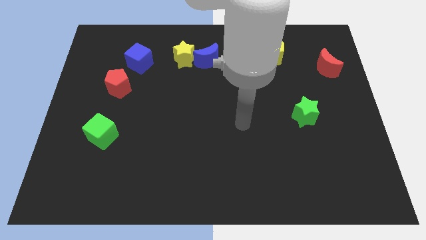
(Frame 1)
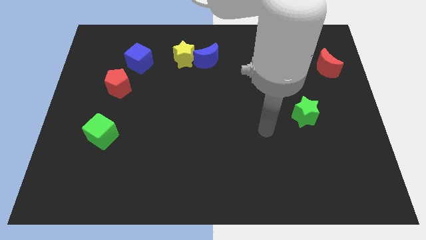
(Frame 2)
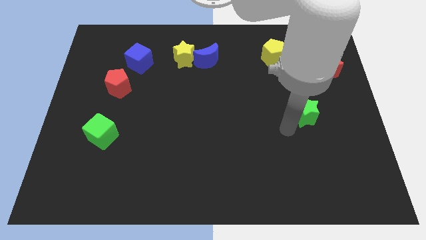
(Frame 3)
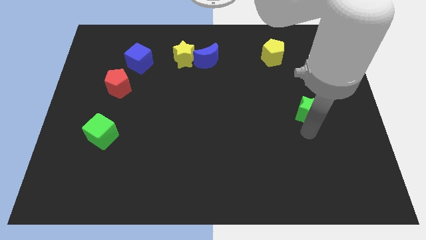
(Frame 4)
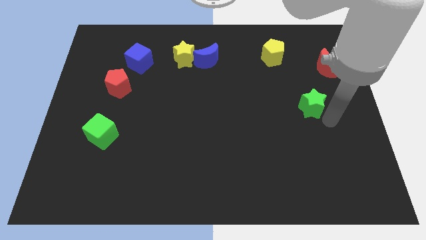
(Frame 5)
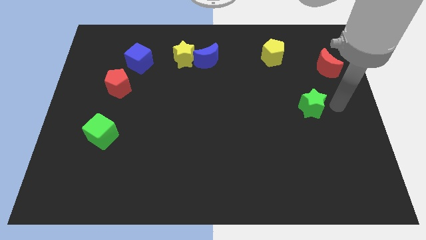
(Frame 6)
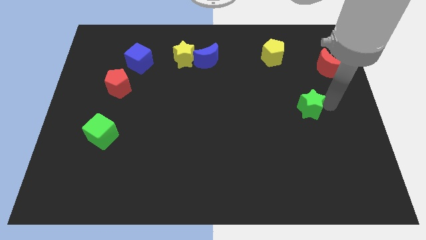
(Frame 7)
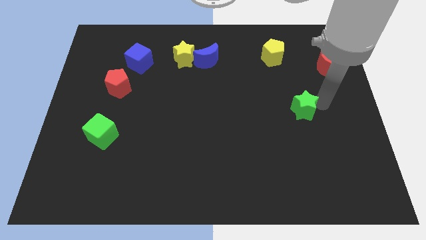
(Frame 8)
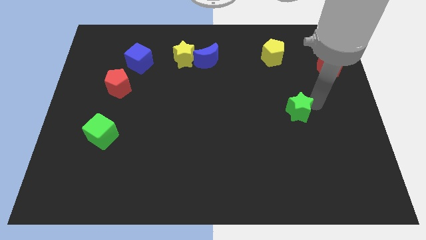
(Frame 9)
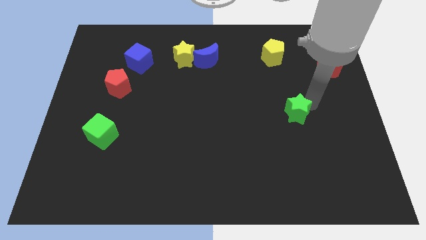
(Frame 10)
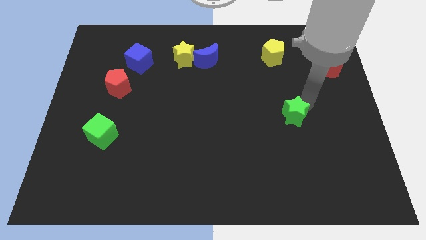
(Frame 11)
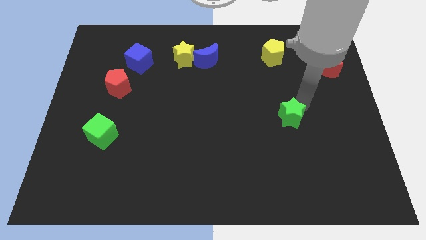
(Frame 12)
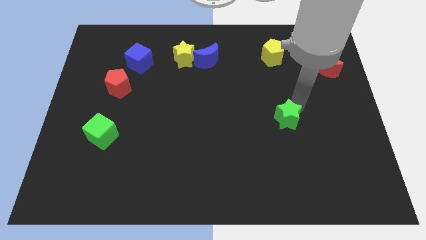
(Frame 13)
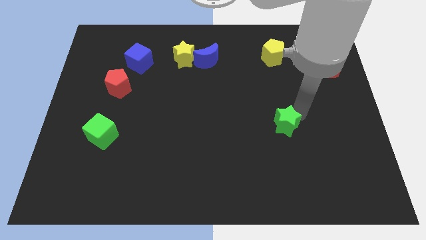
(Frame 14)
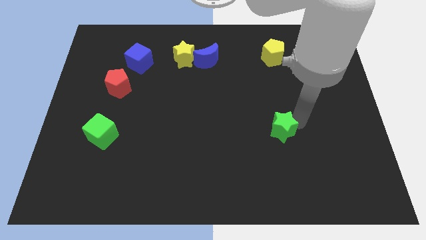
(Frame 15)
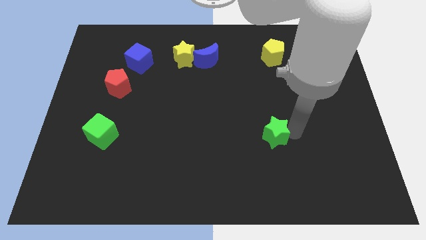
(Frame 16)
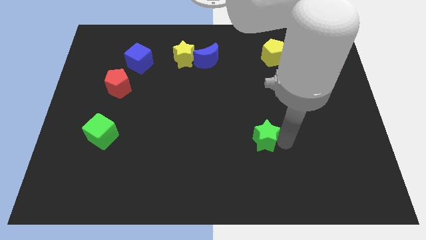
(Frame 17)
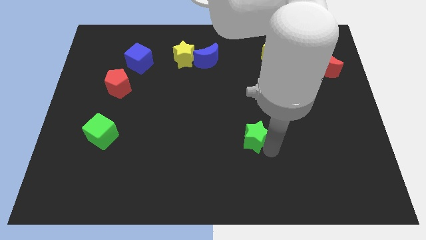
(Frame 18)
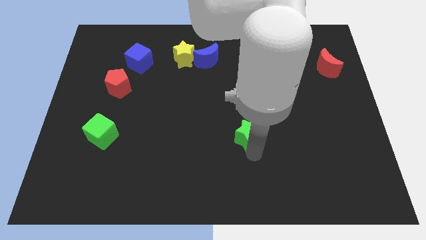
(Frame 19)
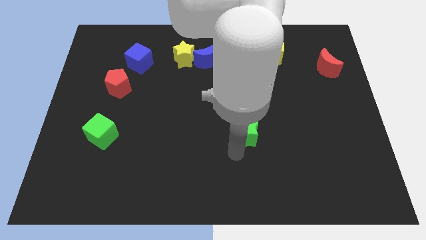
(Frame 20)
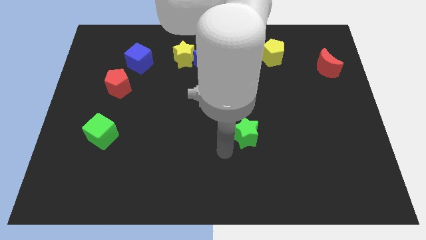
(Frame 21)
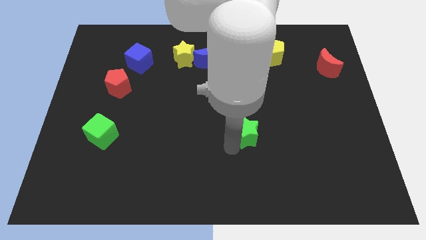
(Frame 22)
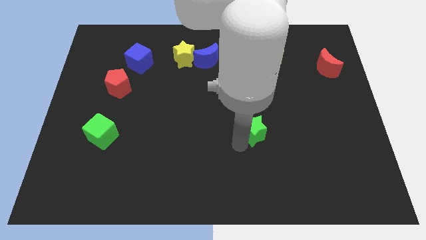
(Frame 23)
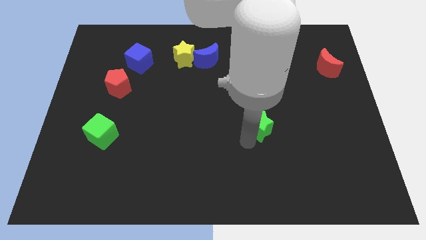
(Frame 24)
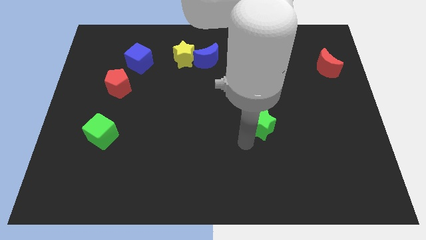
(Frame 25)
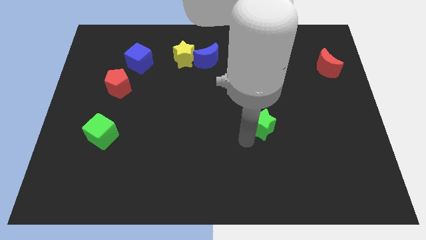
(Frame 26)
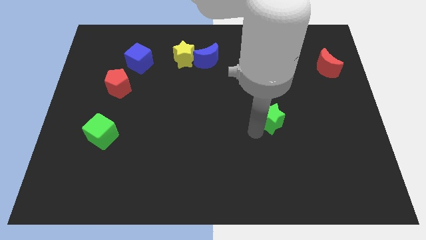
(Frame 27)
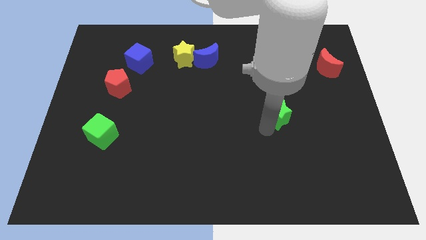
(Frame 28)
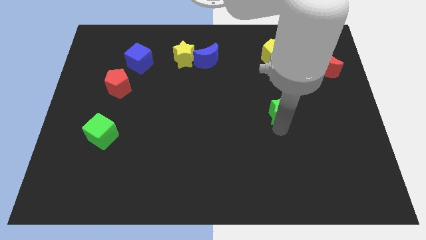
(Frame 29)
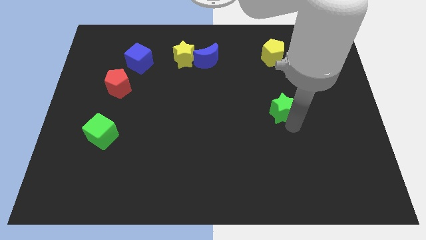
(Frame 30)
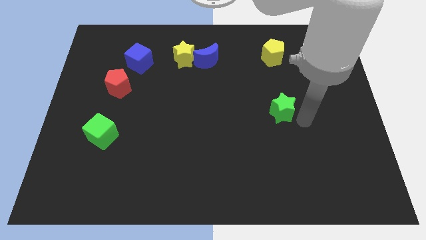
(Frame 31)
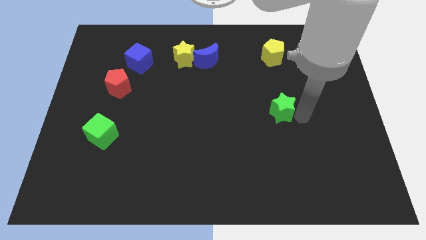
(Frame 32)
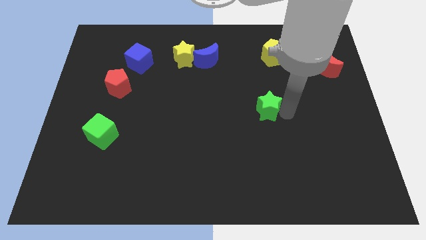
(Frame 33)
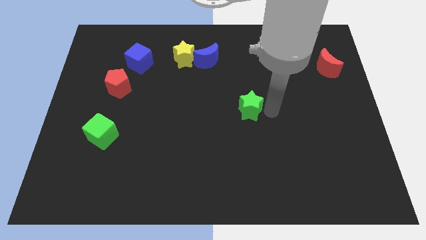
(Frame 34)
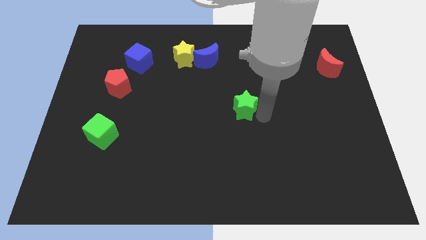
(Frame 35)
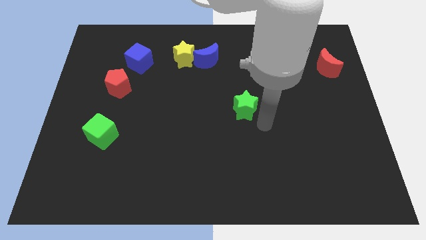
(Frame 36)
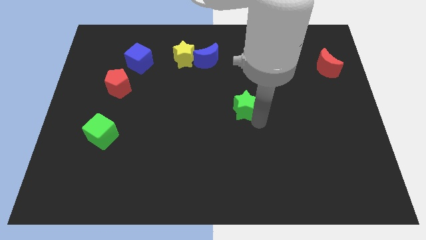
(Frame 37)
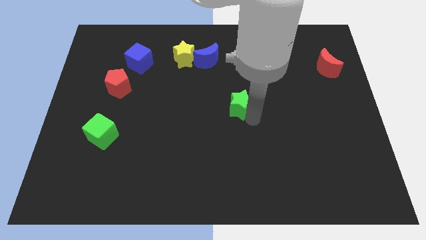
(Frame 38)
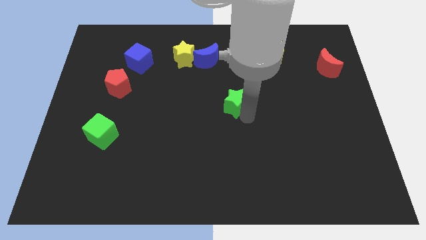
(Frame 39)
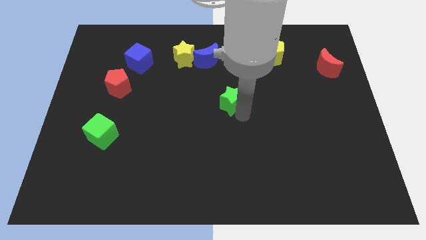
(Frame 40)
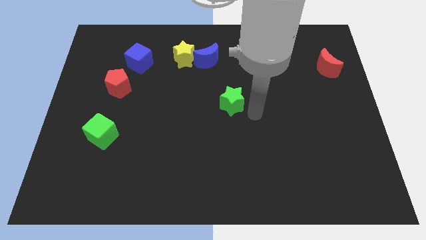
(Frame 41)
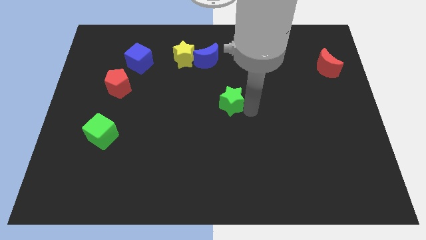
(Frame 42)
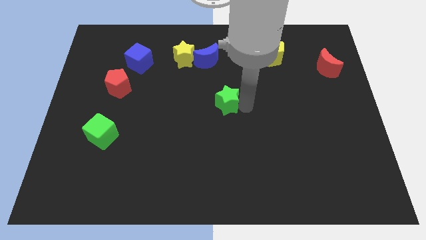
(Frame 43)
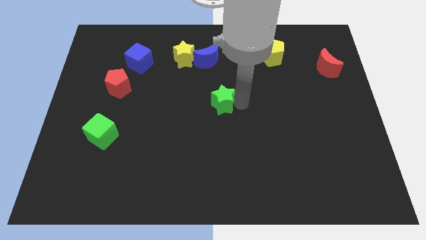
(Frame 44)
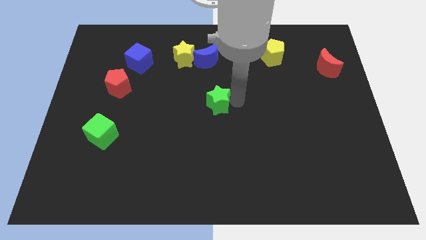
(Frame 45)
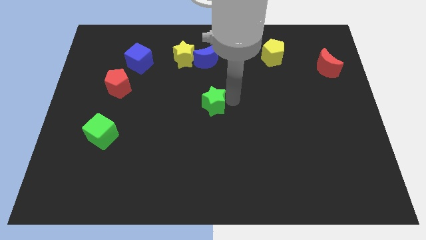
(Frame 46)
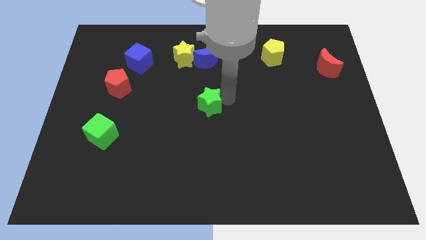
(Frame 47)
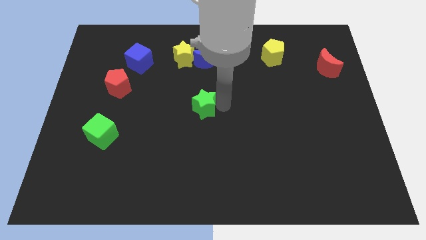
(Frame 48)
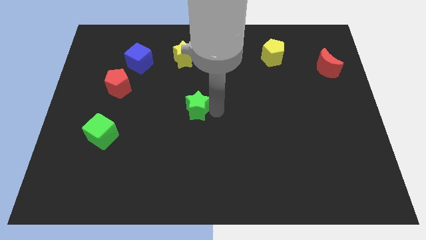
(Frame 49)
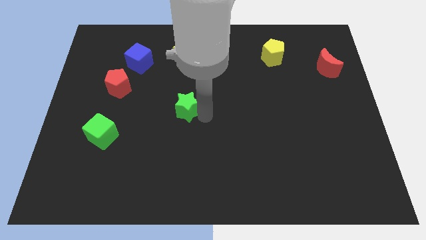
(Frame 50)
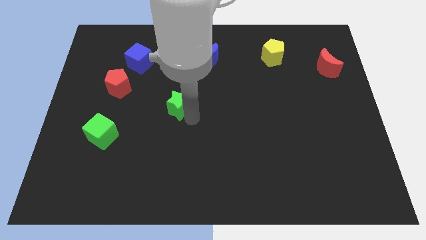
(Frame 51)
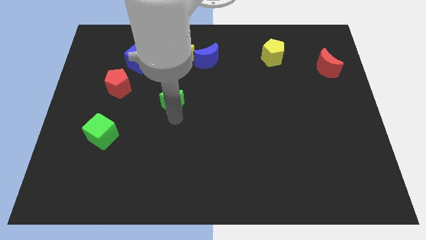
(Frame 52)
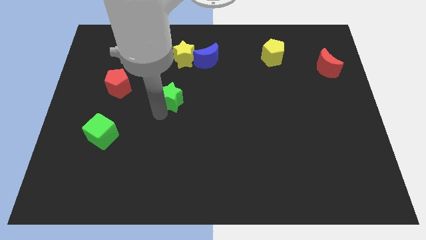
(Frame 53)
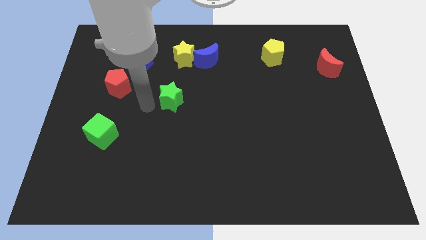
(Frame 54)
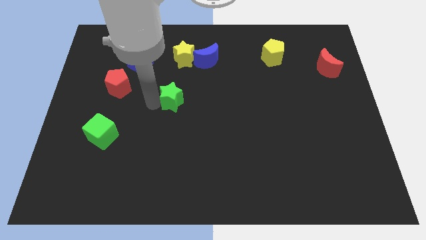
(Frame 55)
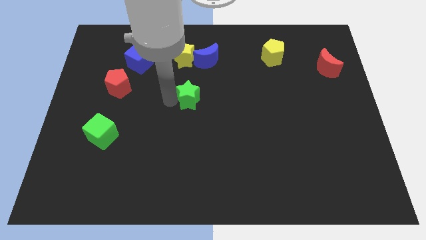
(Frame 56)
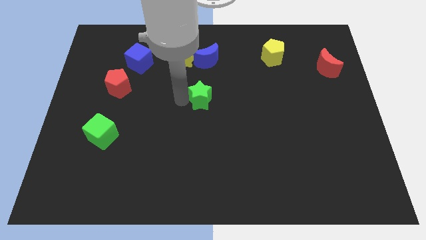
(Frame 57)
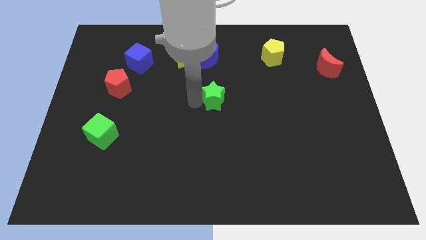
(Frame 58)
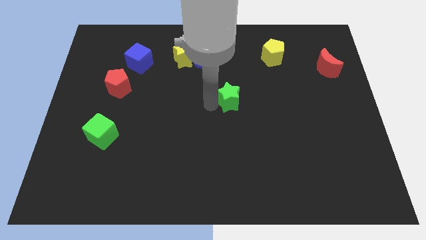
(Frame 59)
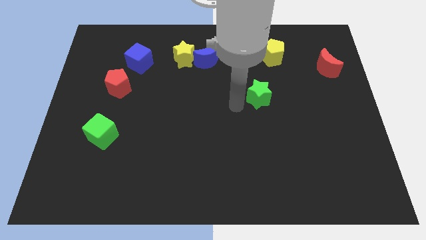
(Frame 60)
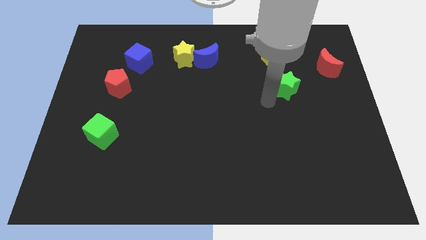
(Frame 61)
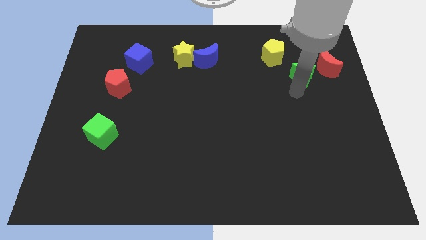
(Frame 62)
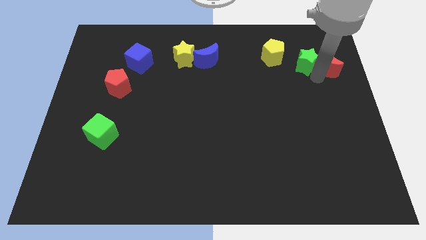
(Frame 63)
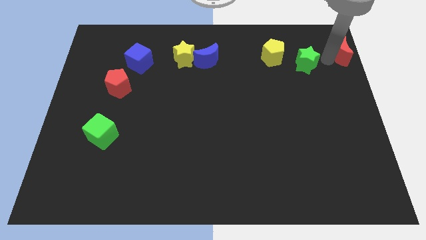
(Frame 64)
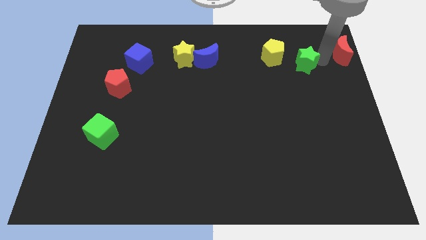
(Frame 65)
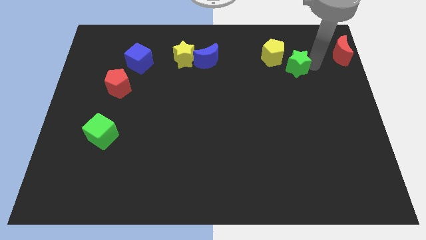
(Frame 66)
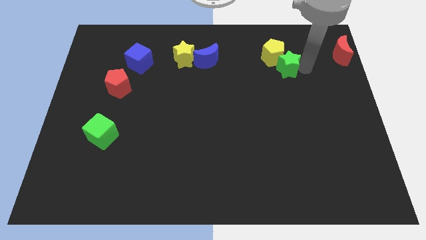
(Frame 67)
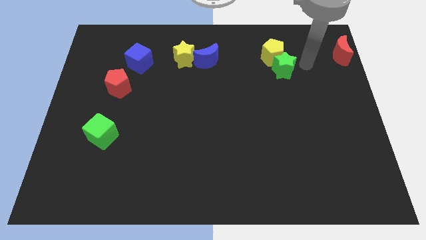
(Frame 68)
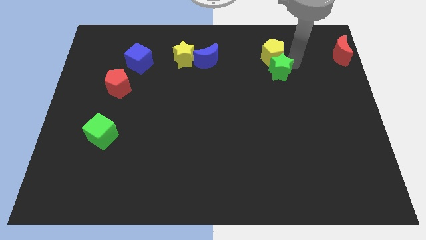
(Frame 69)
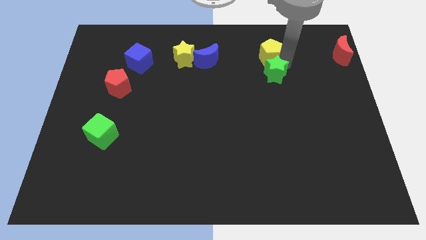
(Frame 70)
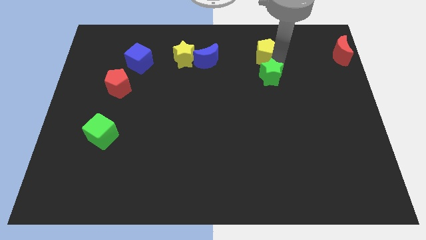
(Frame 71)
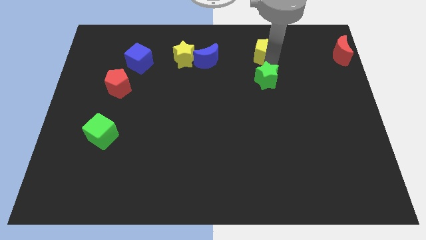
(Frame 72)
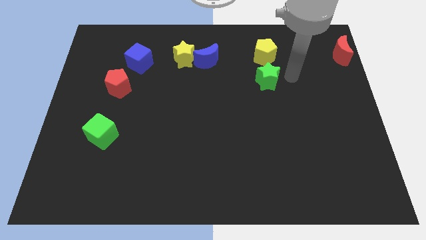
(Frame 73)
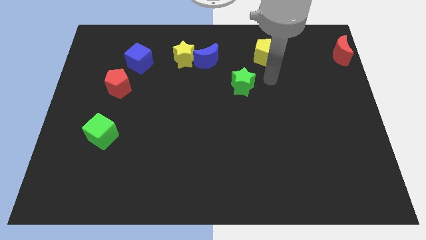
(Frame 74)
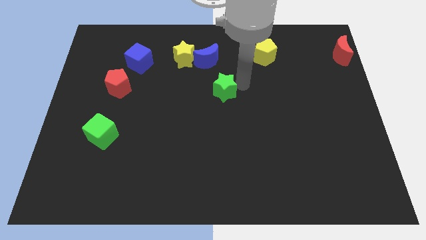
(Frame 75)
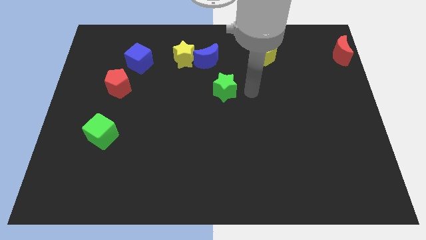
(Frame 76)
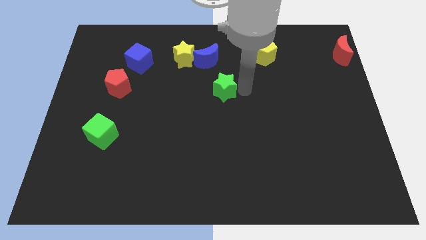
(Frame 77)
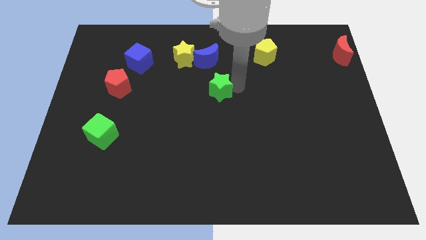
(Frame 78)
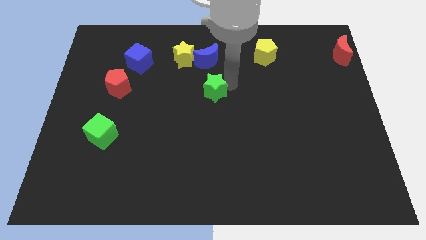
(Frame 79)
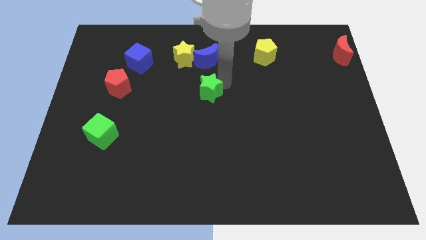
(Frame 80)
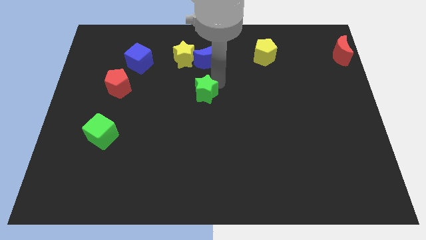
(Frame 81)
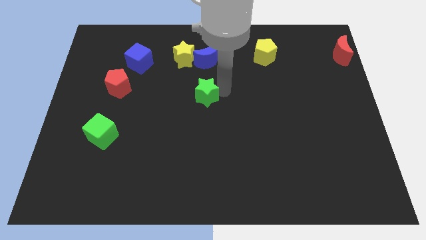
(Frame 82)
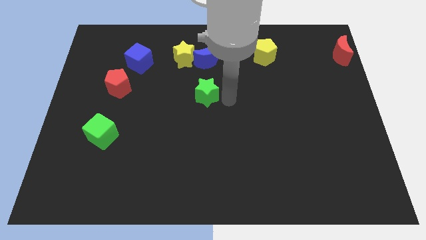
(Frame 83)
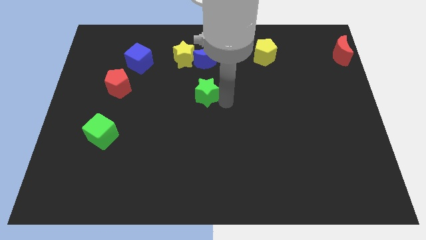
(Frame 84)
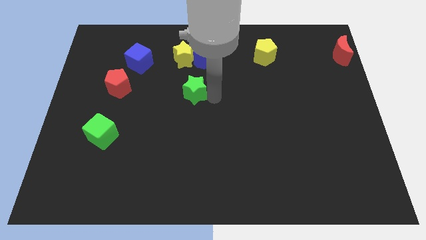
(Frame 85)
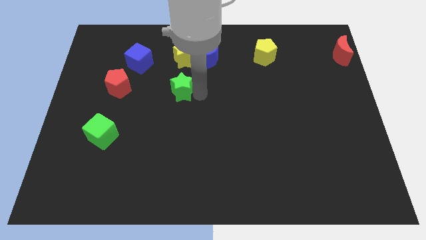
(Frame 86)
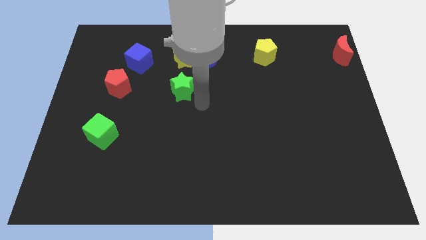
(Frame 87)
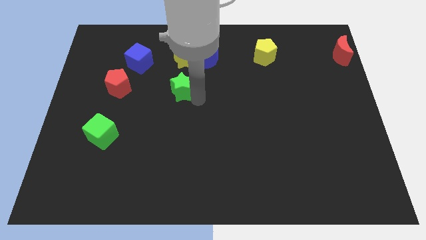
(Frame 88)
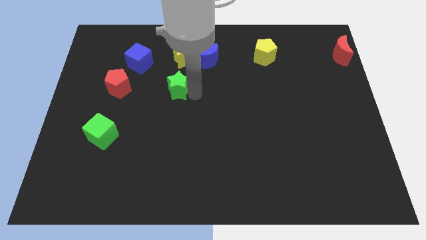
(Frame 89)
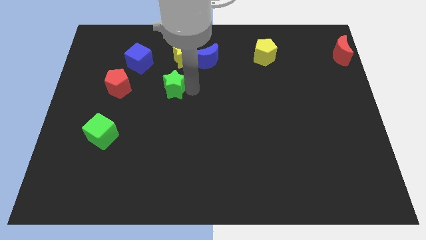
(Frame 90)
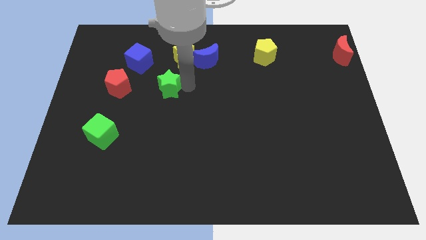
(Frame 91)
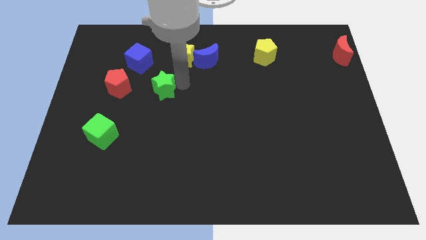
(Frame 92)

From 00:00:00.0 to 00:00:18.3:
slide the green star to the bottom left of the yellow star
